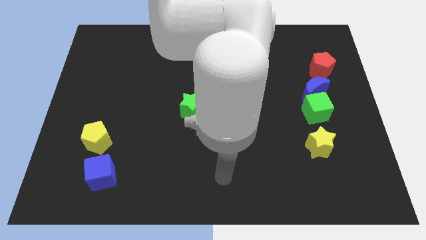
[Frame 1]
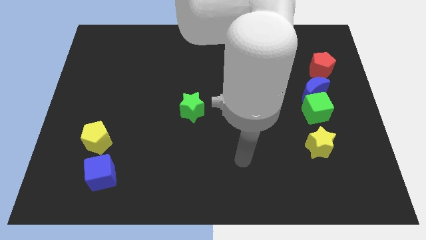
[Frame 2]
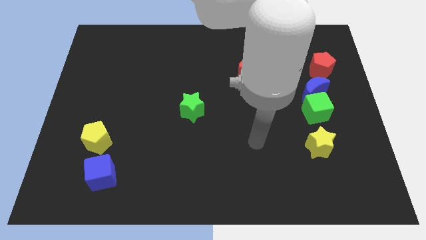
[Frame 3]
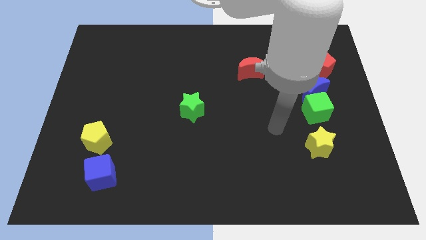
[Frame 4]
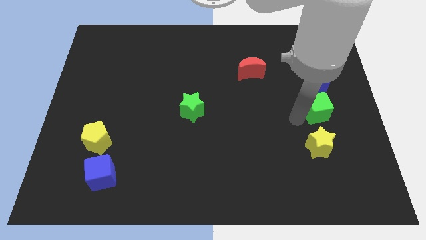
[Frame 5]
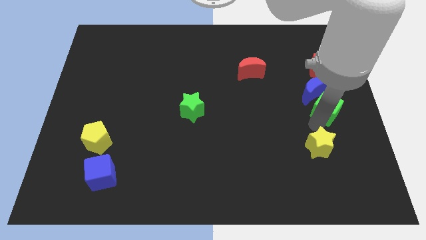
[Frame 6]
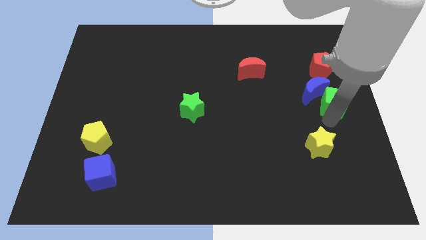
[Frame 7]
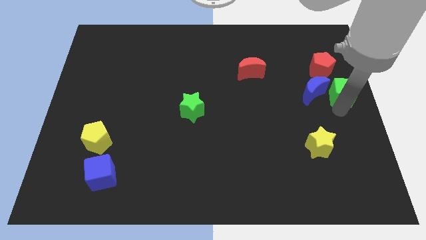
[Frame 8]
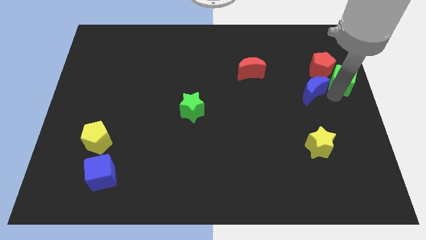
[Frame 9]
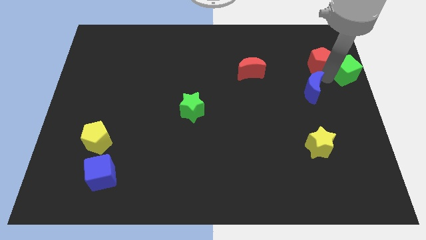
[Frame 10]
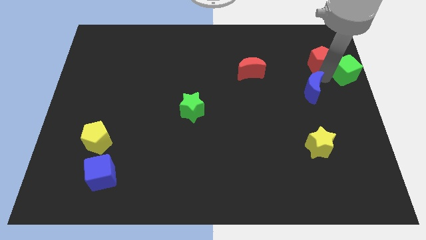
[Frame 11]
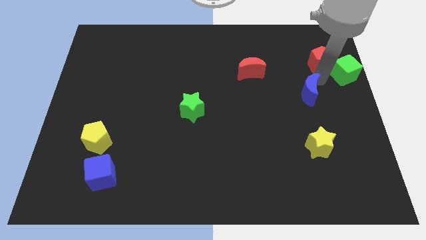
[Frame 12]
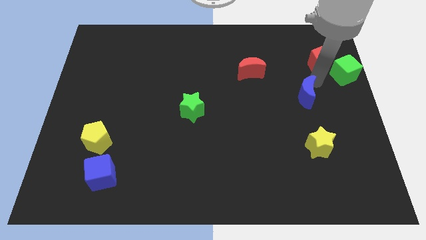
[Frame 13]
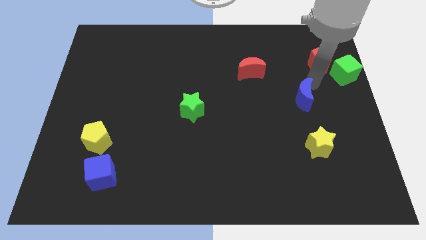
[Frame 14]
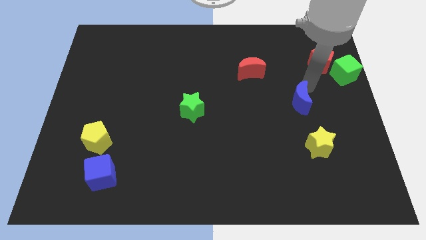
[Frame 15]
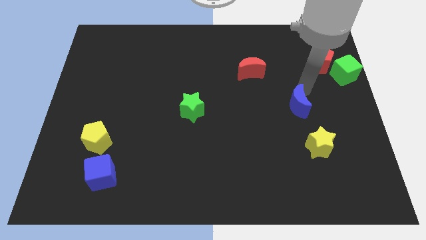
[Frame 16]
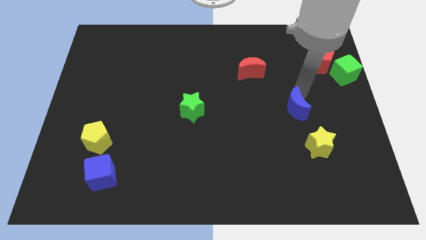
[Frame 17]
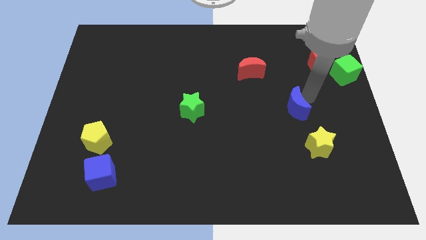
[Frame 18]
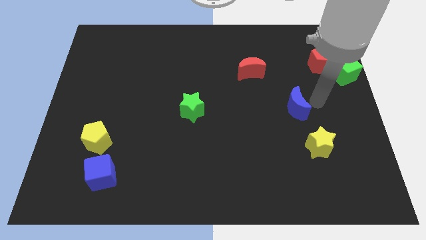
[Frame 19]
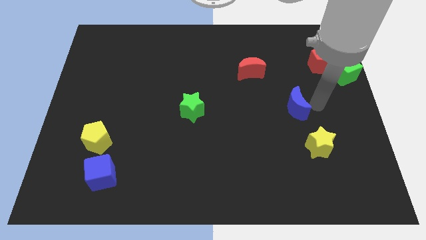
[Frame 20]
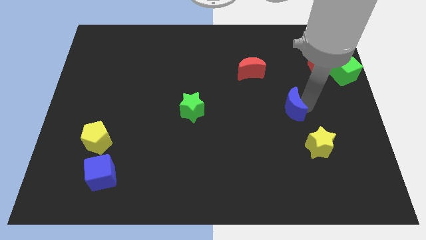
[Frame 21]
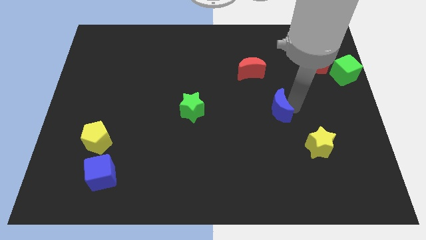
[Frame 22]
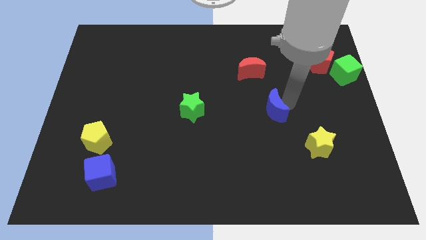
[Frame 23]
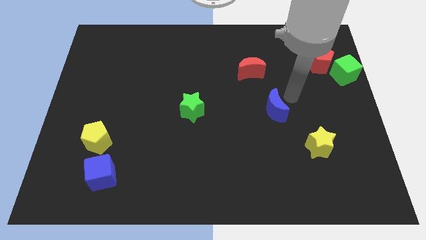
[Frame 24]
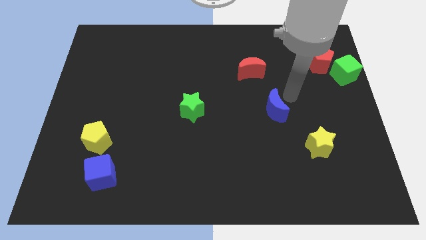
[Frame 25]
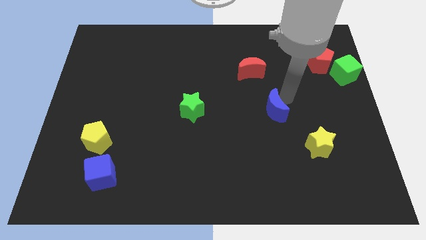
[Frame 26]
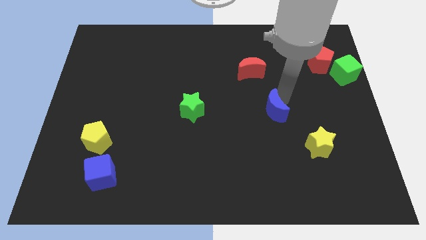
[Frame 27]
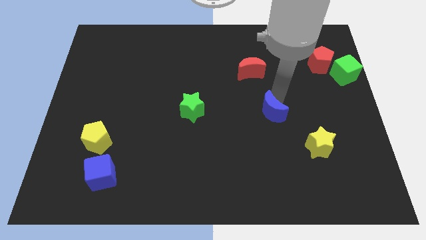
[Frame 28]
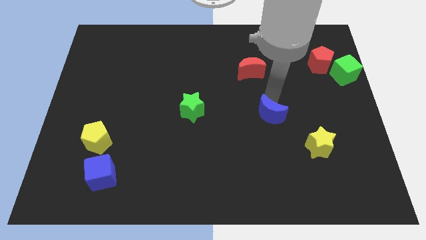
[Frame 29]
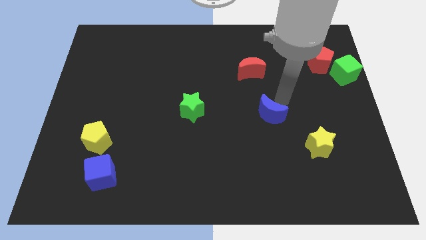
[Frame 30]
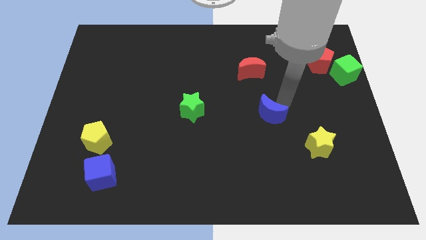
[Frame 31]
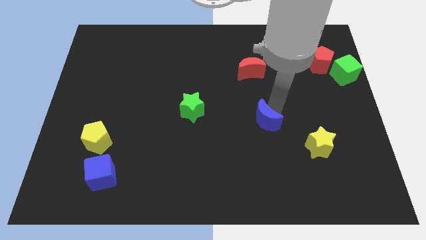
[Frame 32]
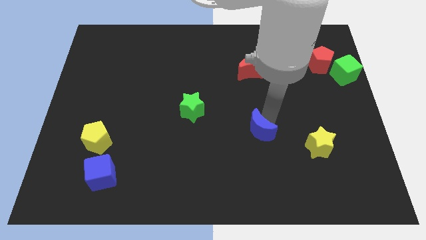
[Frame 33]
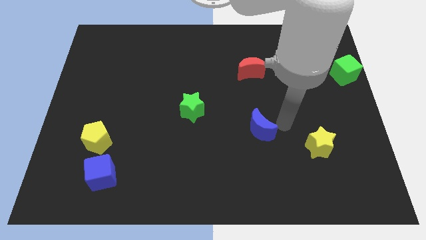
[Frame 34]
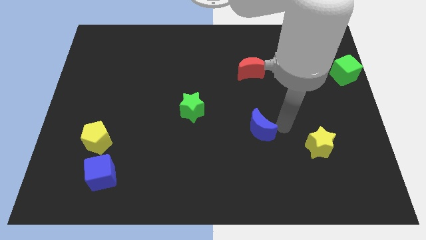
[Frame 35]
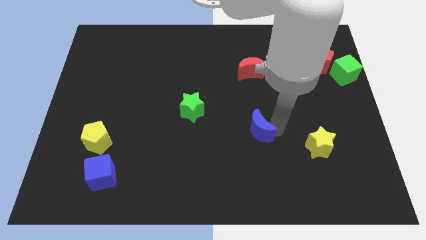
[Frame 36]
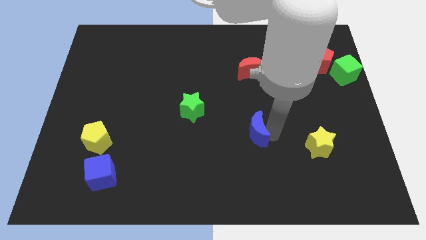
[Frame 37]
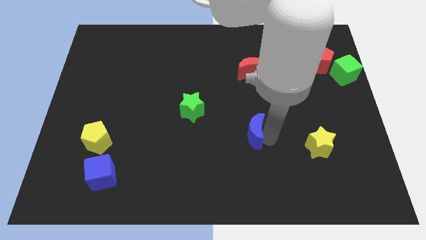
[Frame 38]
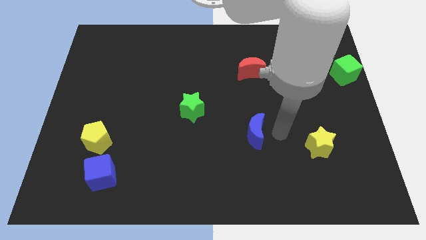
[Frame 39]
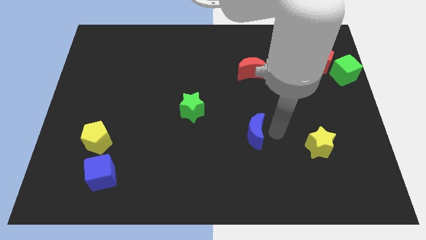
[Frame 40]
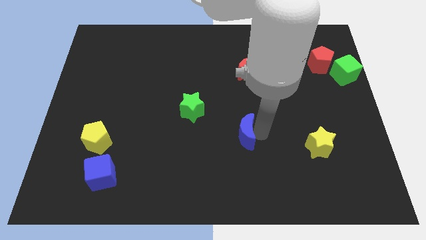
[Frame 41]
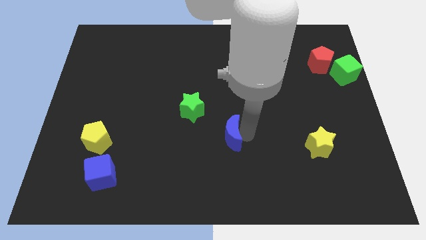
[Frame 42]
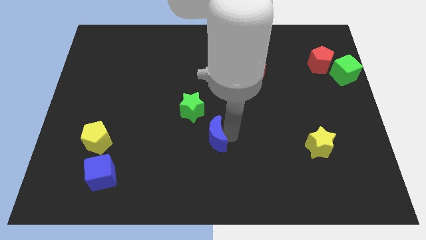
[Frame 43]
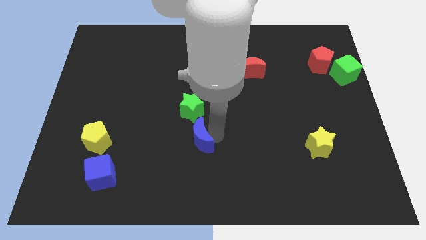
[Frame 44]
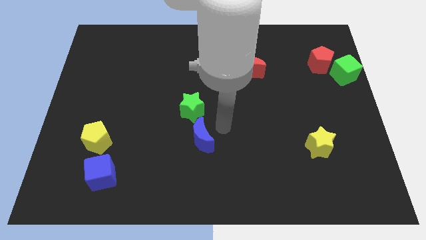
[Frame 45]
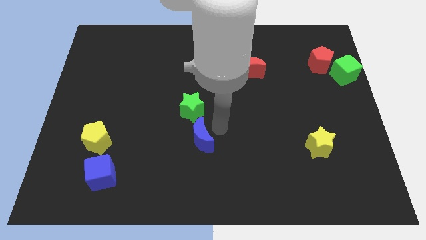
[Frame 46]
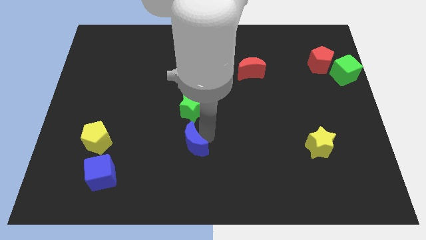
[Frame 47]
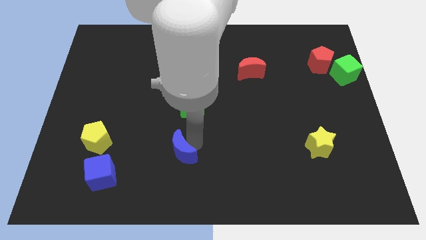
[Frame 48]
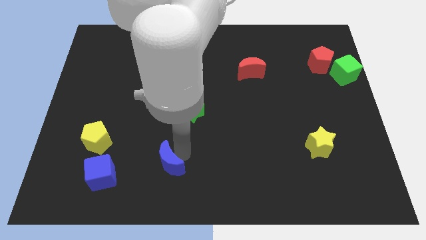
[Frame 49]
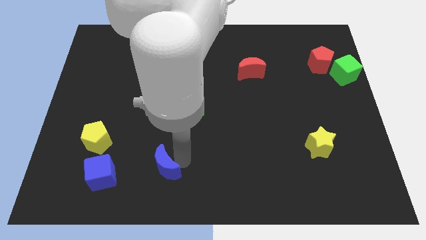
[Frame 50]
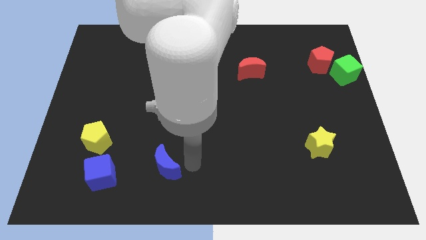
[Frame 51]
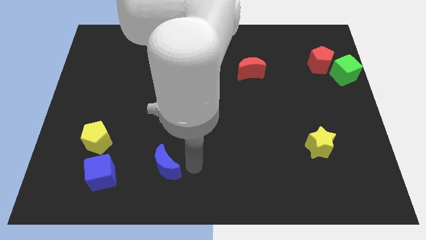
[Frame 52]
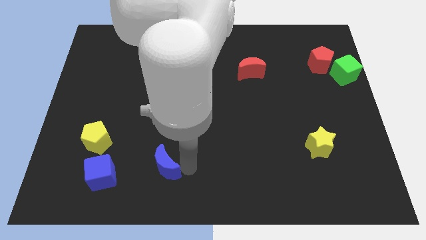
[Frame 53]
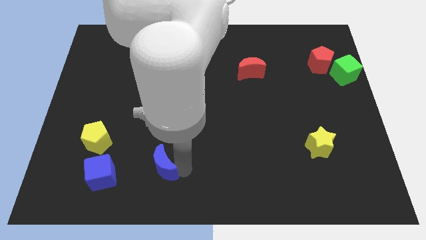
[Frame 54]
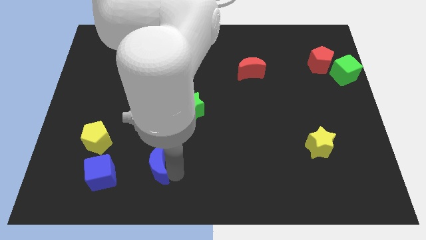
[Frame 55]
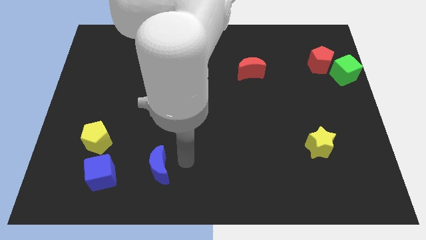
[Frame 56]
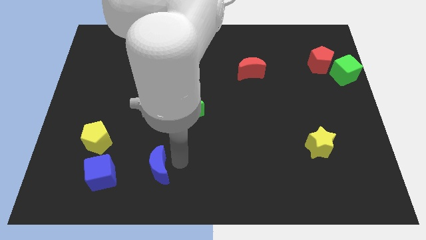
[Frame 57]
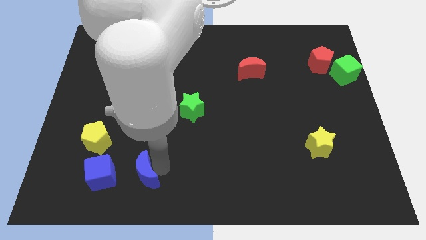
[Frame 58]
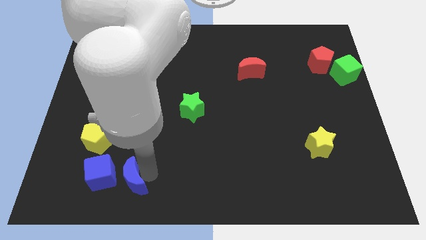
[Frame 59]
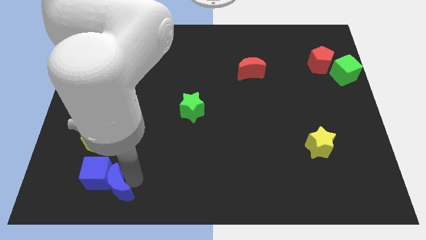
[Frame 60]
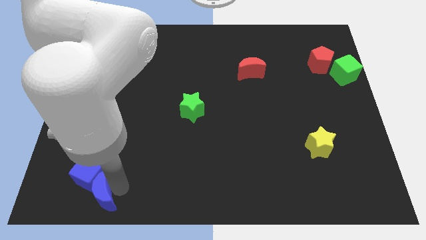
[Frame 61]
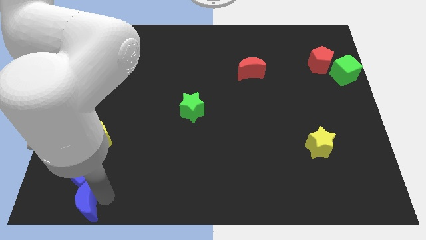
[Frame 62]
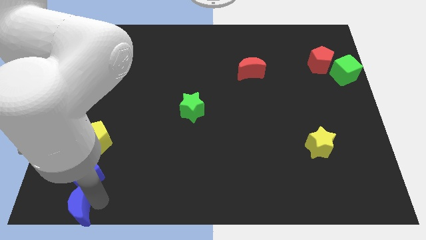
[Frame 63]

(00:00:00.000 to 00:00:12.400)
put the blue moon to the bottom left of the board
